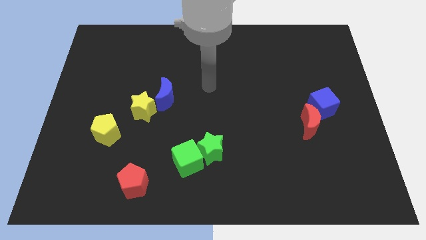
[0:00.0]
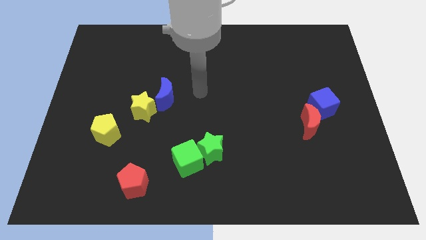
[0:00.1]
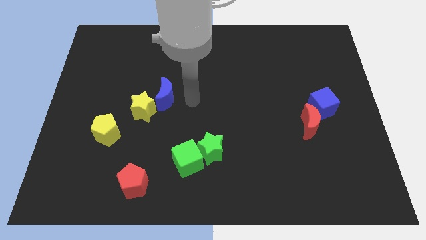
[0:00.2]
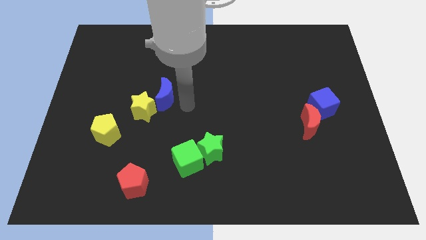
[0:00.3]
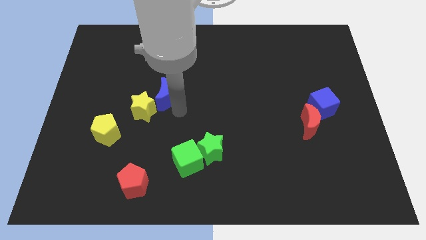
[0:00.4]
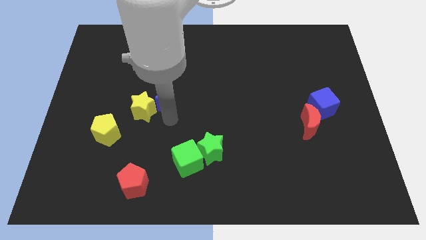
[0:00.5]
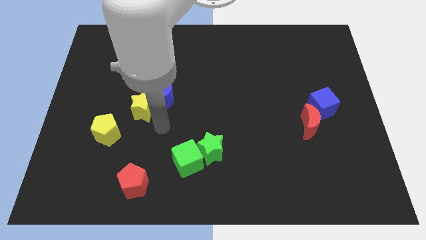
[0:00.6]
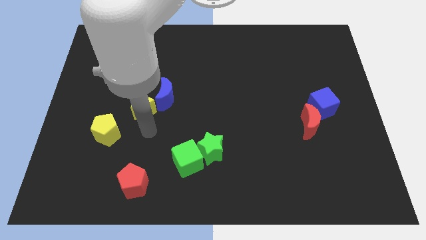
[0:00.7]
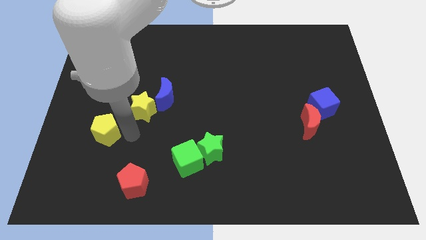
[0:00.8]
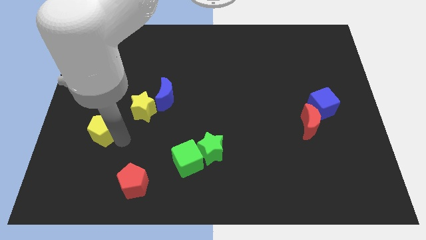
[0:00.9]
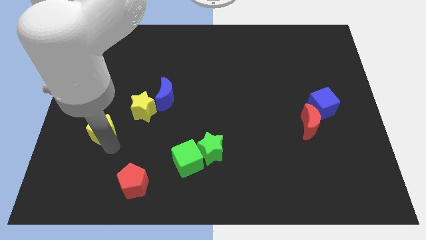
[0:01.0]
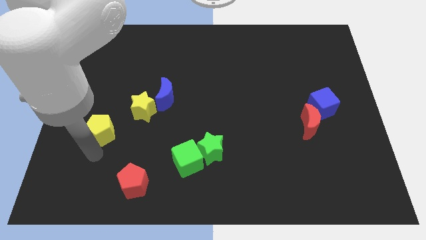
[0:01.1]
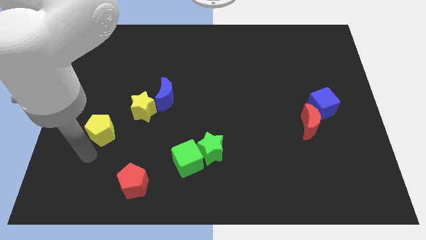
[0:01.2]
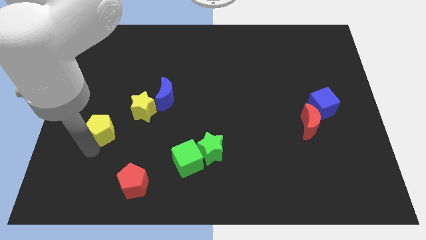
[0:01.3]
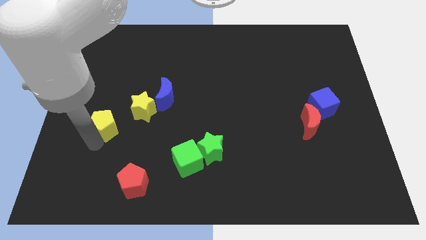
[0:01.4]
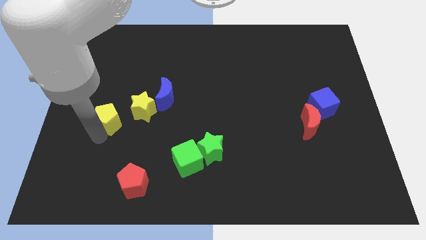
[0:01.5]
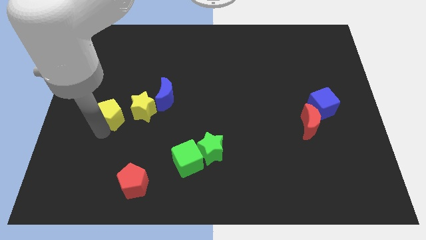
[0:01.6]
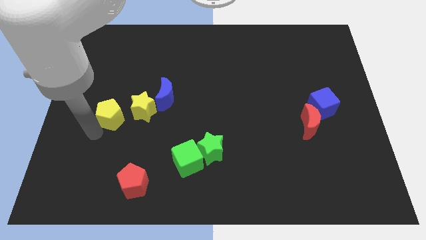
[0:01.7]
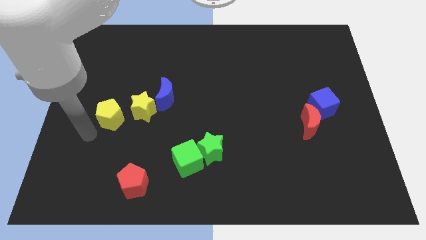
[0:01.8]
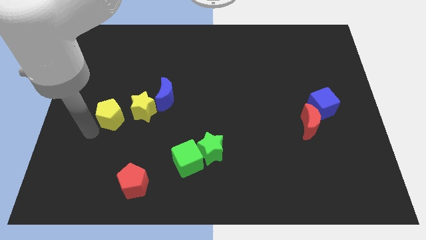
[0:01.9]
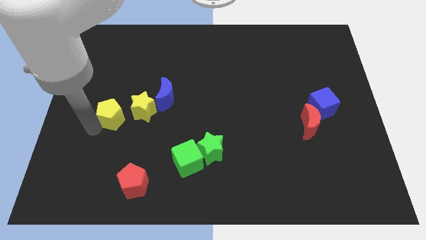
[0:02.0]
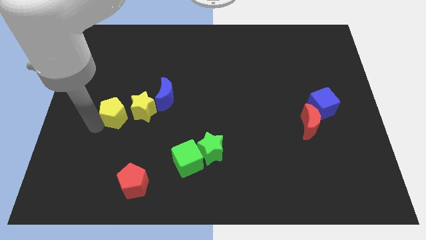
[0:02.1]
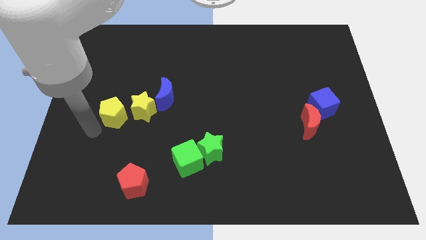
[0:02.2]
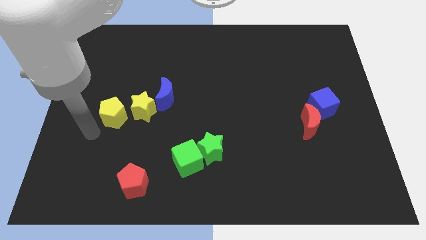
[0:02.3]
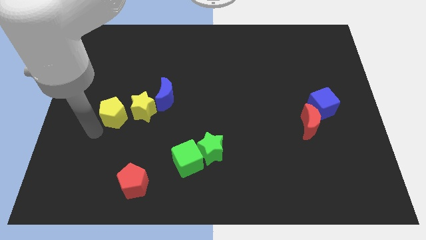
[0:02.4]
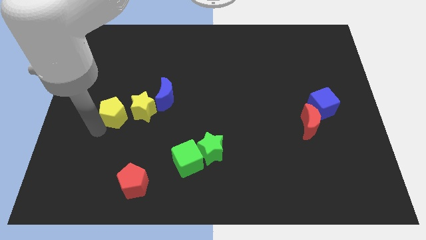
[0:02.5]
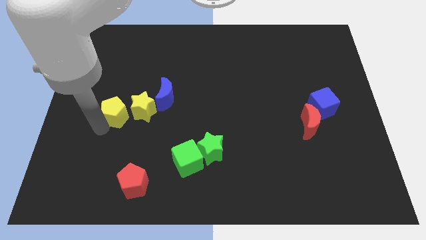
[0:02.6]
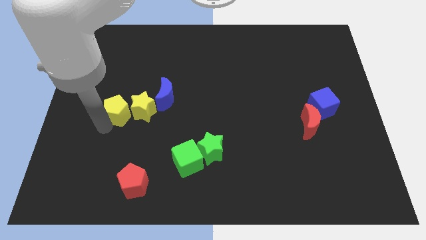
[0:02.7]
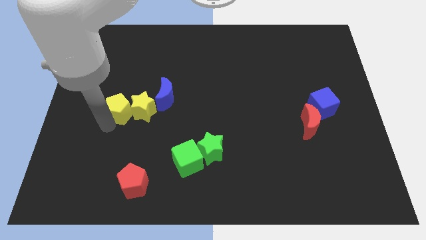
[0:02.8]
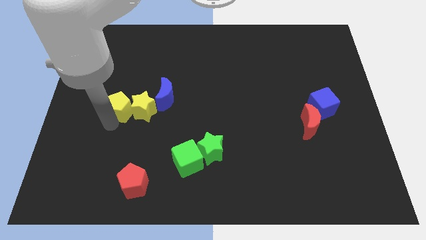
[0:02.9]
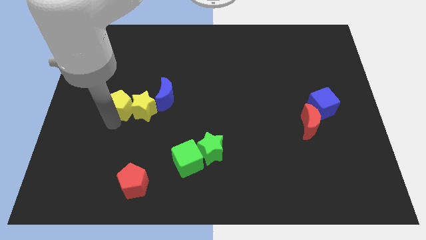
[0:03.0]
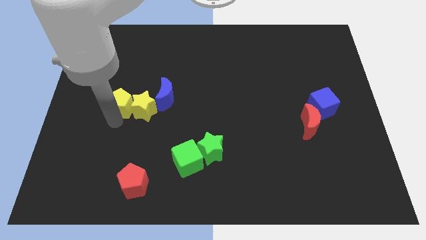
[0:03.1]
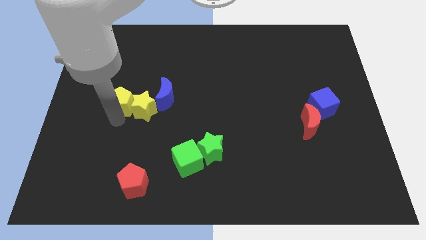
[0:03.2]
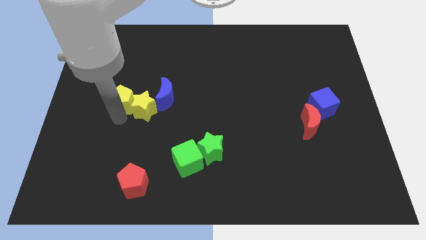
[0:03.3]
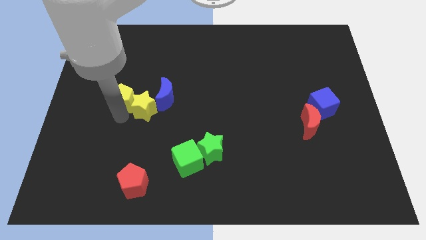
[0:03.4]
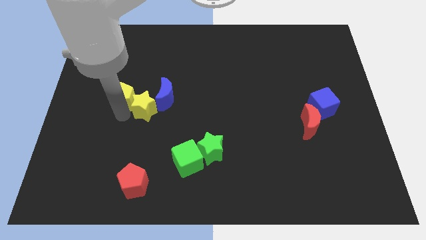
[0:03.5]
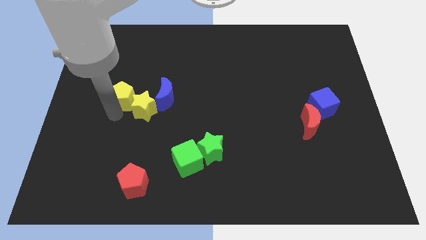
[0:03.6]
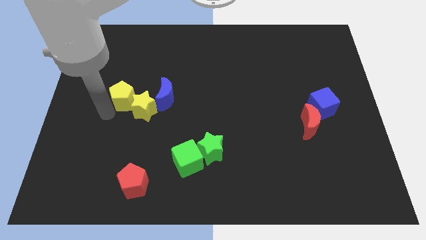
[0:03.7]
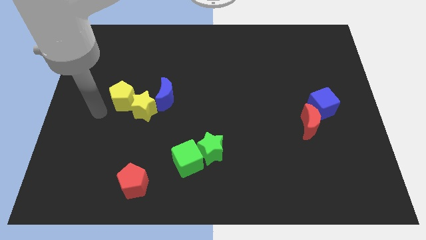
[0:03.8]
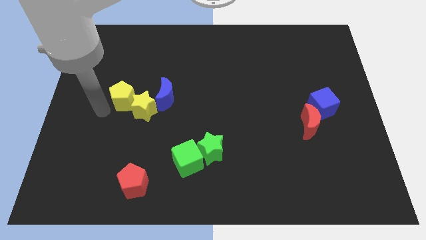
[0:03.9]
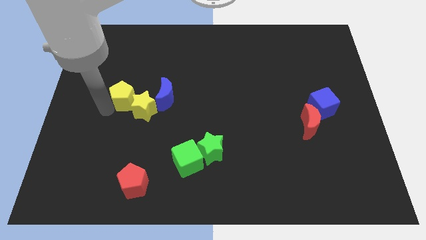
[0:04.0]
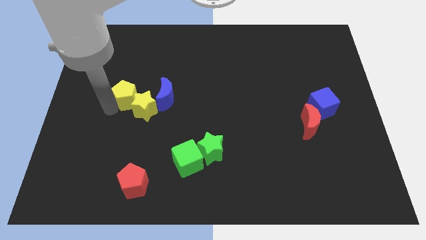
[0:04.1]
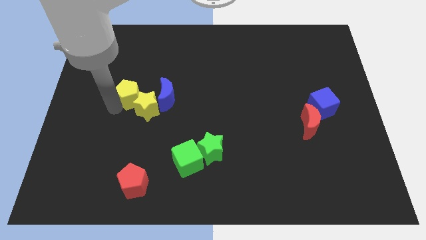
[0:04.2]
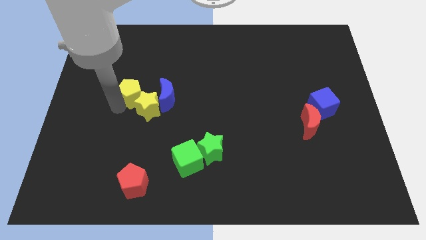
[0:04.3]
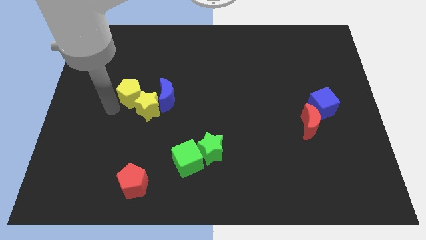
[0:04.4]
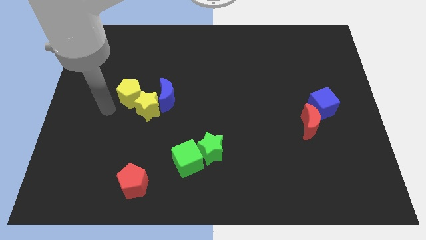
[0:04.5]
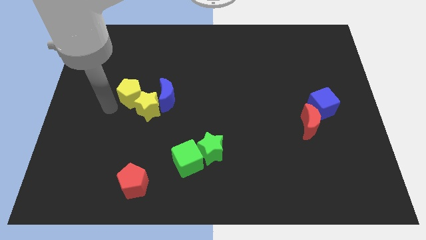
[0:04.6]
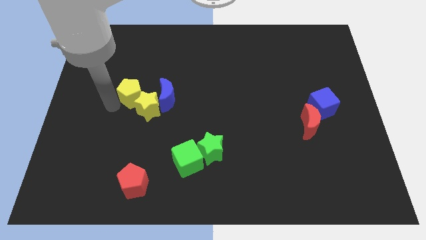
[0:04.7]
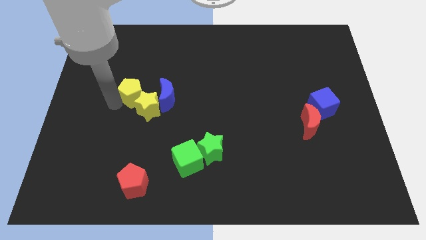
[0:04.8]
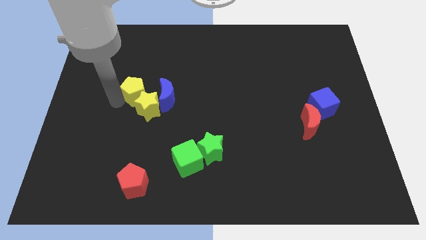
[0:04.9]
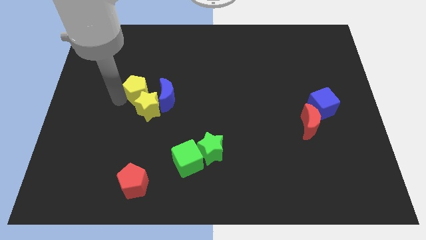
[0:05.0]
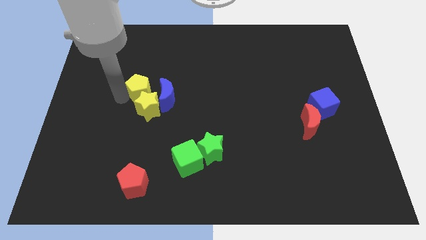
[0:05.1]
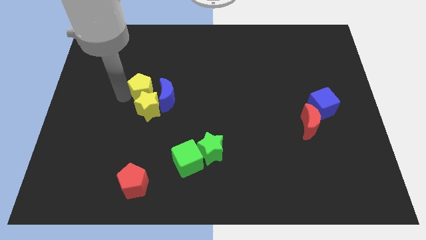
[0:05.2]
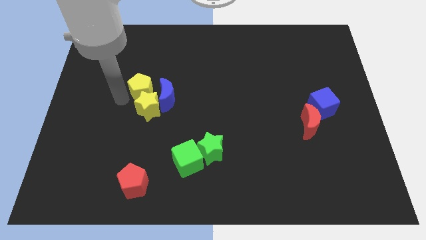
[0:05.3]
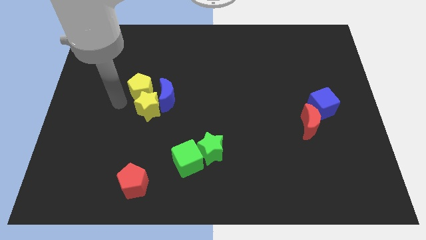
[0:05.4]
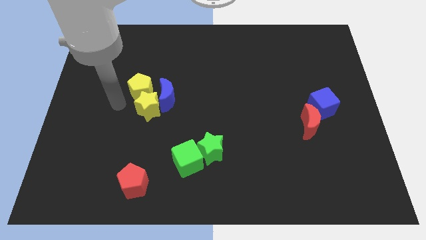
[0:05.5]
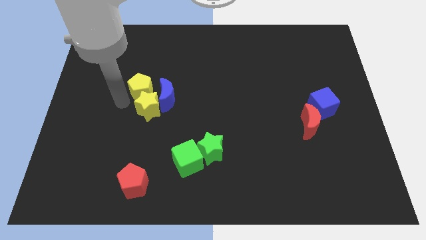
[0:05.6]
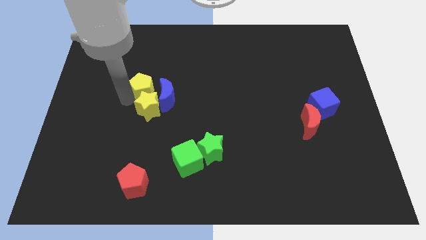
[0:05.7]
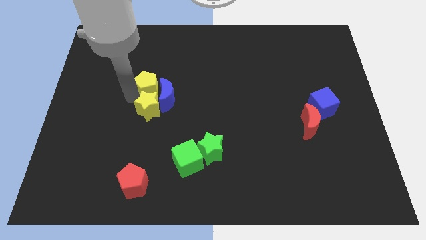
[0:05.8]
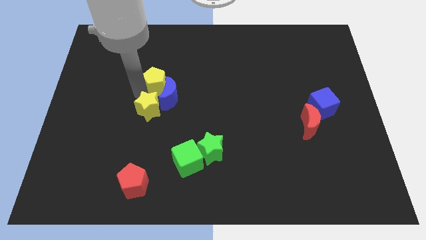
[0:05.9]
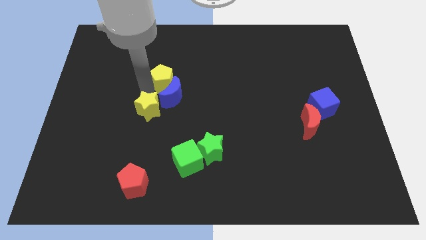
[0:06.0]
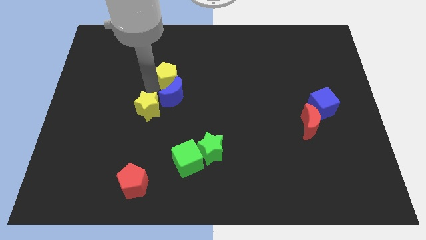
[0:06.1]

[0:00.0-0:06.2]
slide the yellow pentagon upwards and then to the right

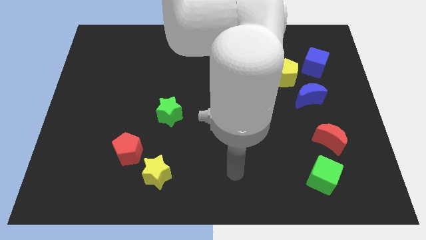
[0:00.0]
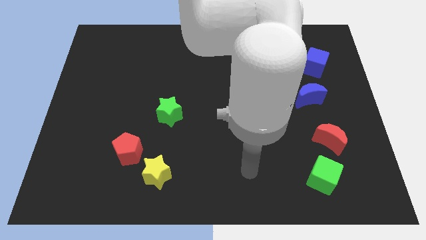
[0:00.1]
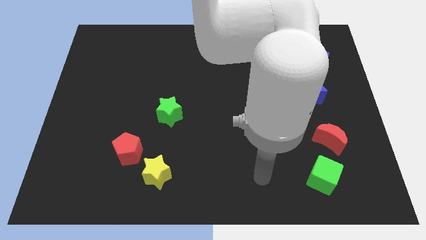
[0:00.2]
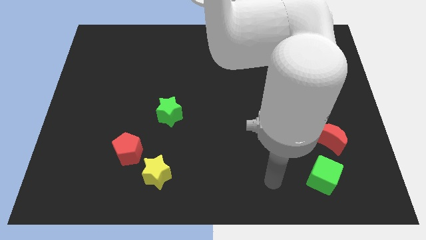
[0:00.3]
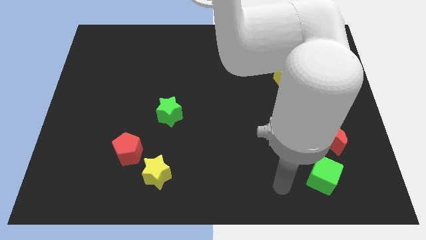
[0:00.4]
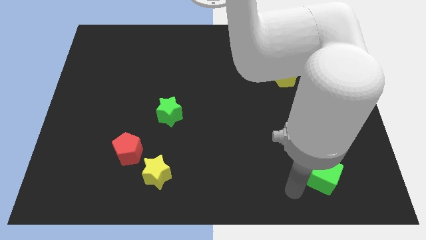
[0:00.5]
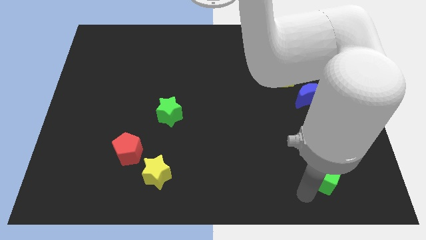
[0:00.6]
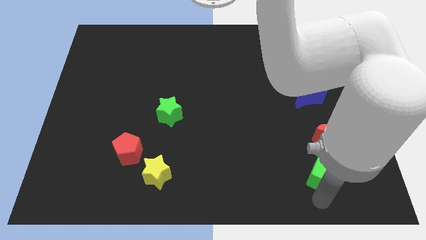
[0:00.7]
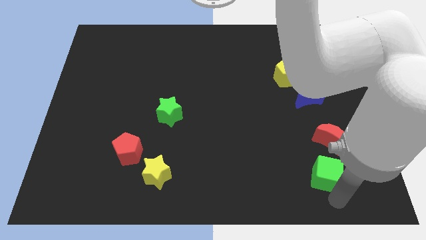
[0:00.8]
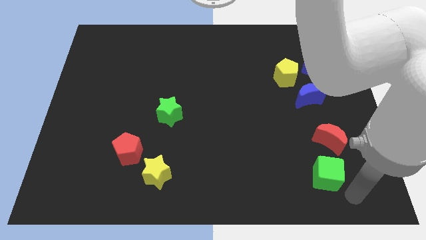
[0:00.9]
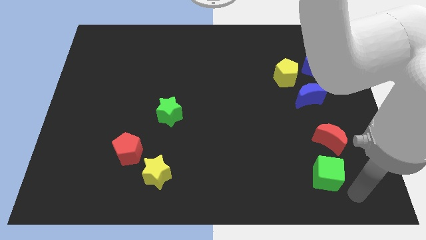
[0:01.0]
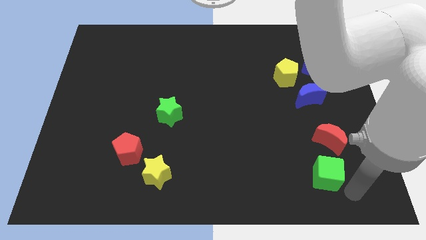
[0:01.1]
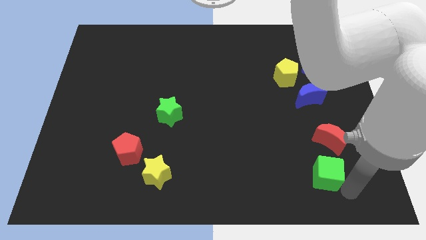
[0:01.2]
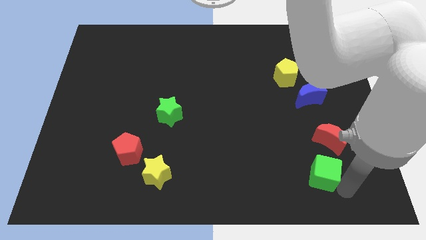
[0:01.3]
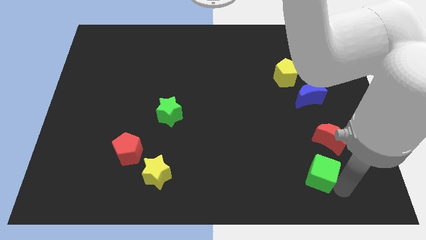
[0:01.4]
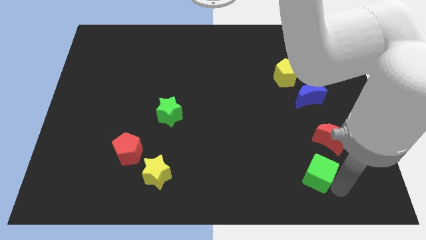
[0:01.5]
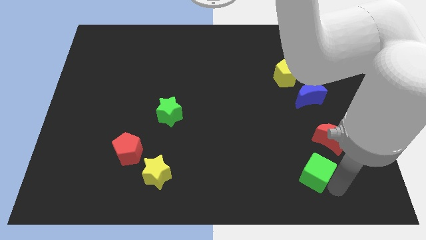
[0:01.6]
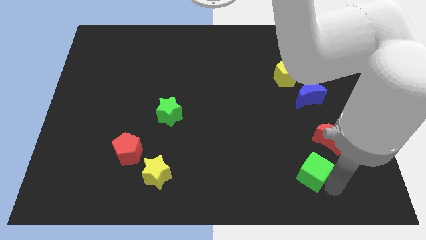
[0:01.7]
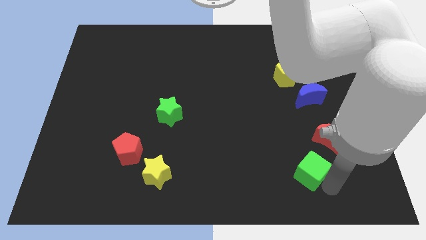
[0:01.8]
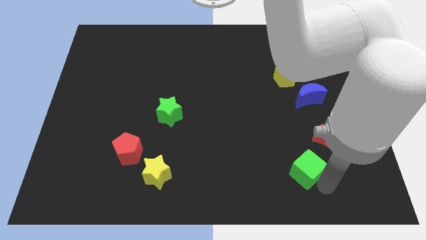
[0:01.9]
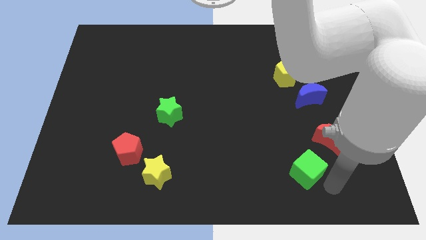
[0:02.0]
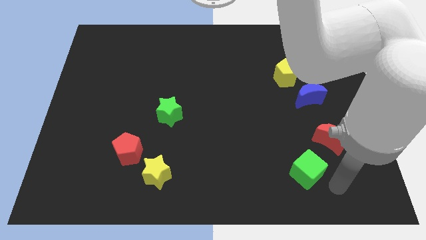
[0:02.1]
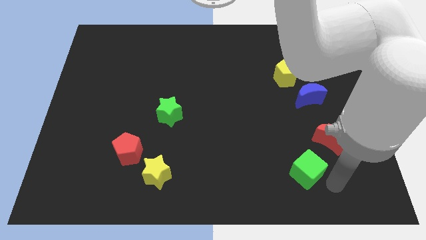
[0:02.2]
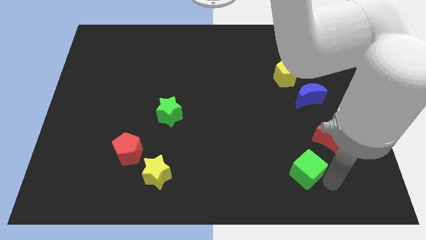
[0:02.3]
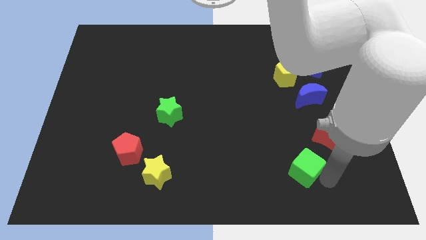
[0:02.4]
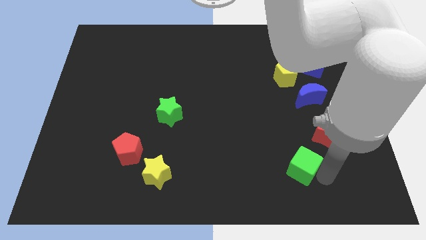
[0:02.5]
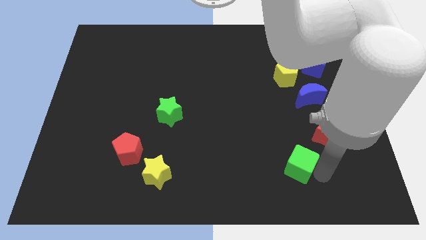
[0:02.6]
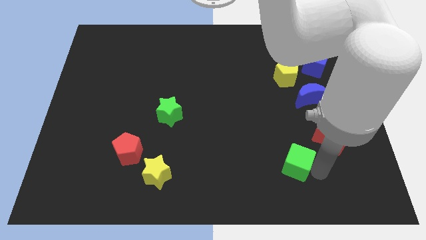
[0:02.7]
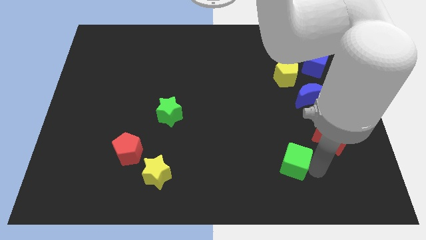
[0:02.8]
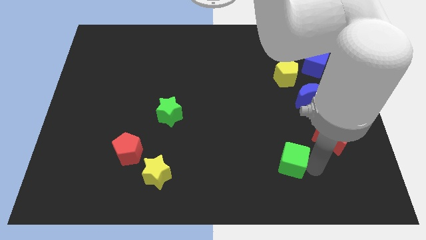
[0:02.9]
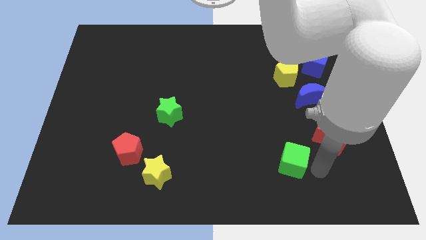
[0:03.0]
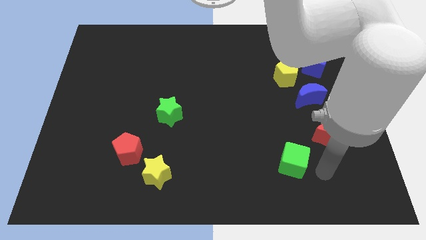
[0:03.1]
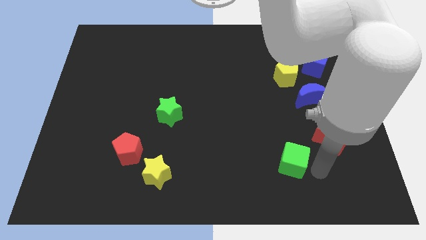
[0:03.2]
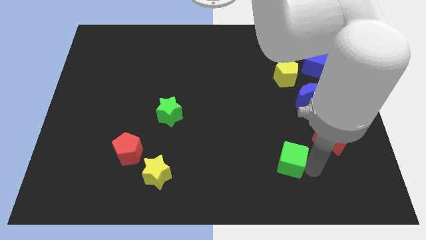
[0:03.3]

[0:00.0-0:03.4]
push the green cube slightly diagonally up and to the left
